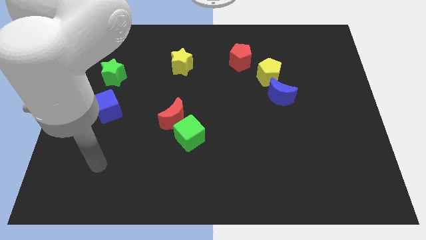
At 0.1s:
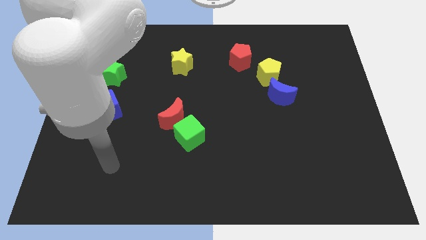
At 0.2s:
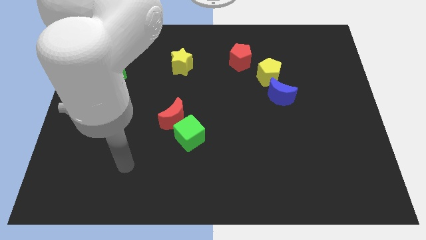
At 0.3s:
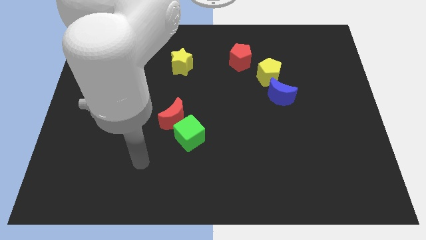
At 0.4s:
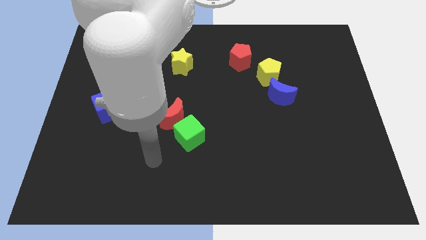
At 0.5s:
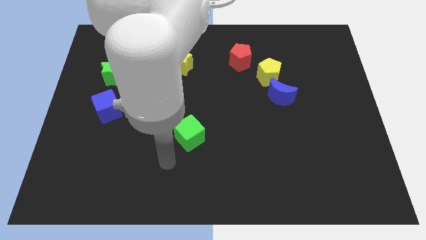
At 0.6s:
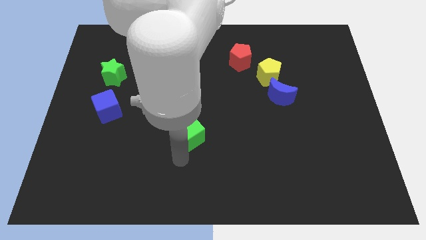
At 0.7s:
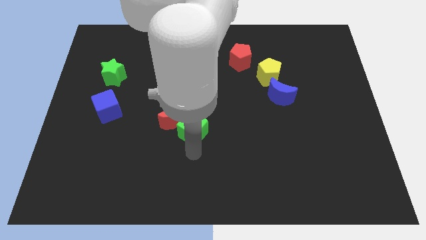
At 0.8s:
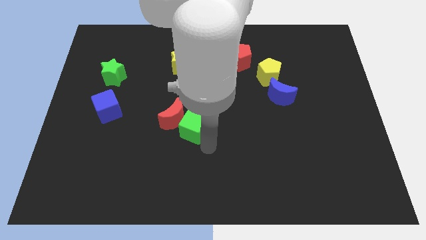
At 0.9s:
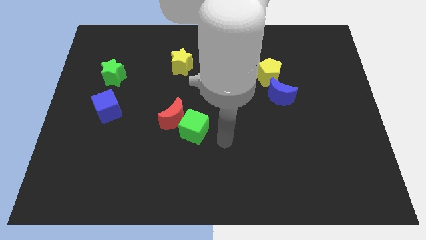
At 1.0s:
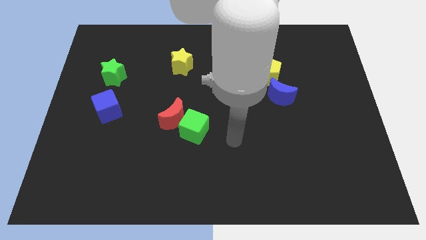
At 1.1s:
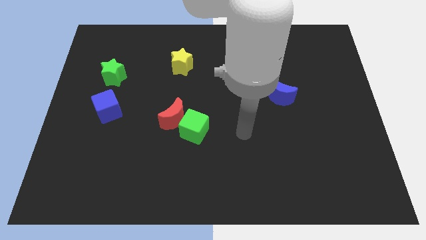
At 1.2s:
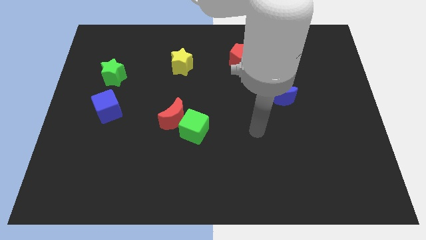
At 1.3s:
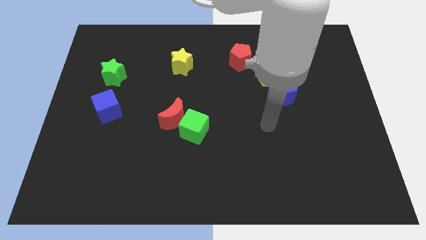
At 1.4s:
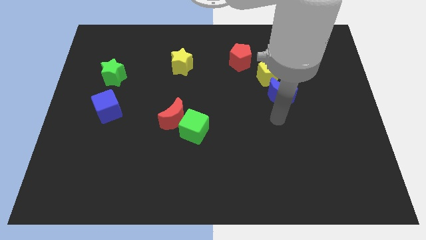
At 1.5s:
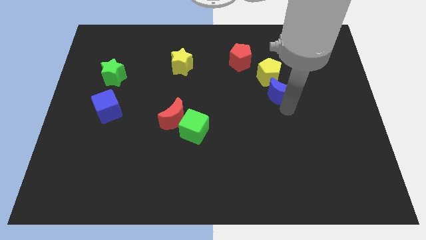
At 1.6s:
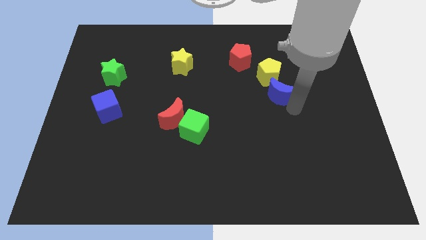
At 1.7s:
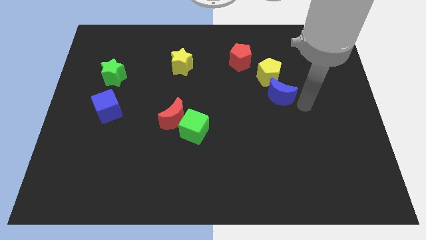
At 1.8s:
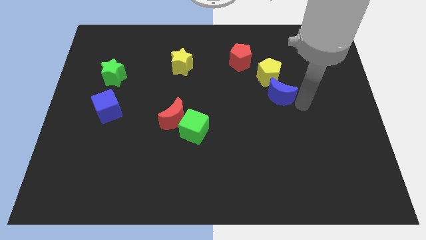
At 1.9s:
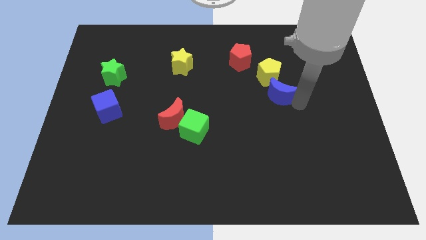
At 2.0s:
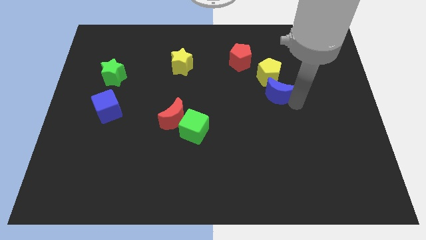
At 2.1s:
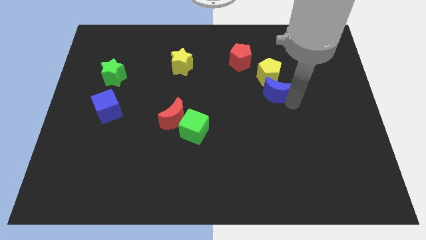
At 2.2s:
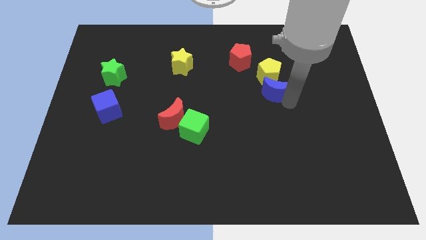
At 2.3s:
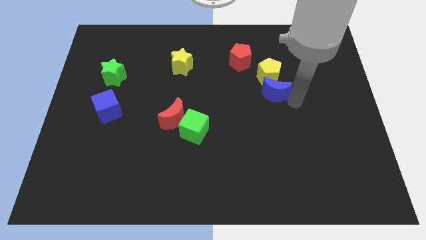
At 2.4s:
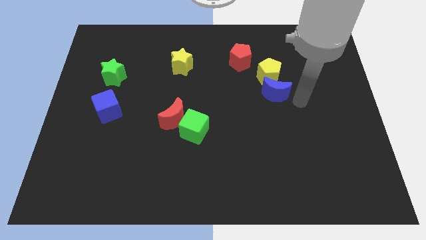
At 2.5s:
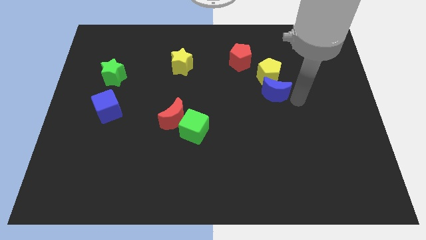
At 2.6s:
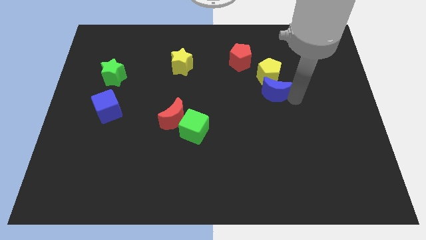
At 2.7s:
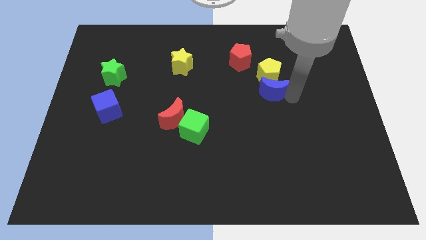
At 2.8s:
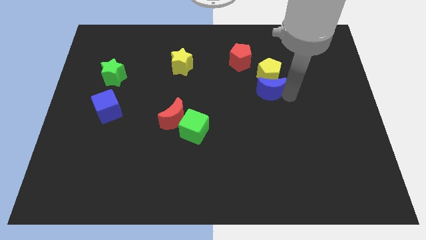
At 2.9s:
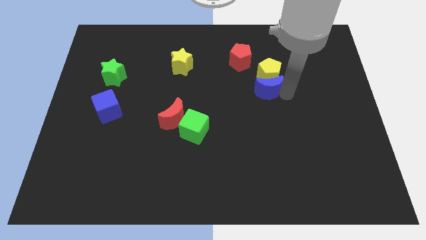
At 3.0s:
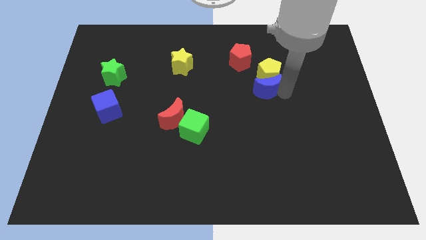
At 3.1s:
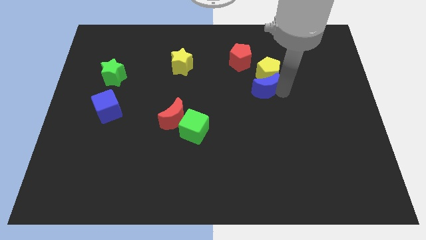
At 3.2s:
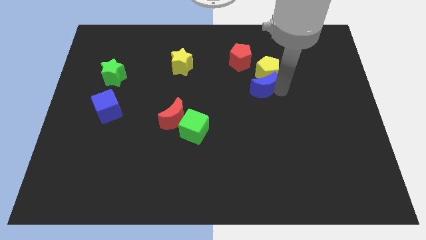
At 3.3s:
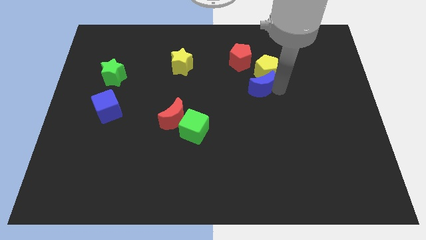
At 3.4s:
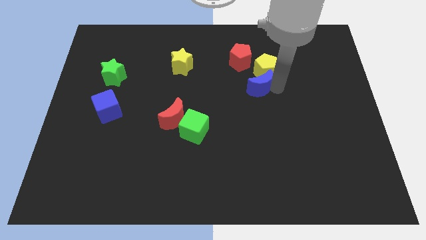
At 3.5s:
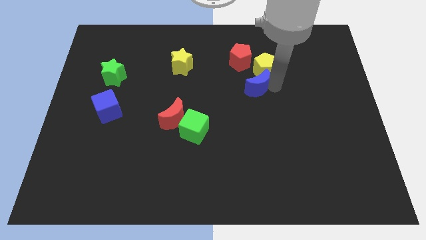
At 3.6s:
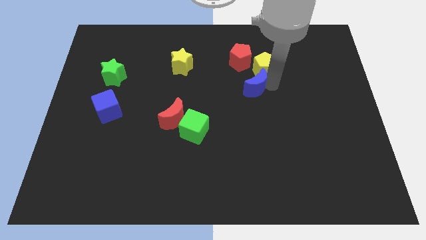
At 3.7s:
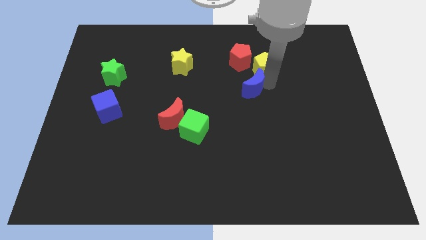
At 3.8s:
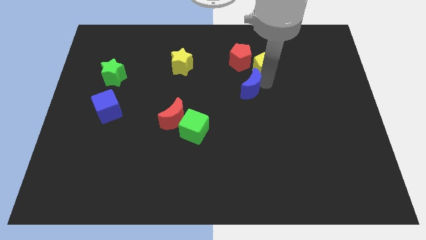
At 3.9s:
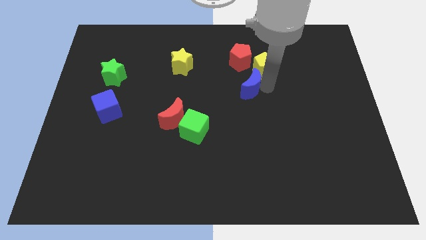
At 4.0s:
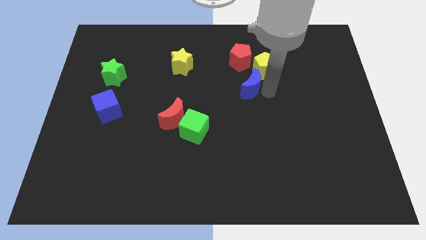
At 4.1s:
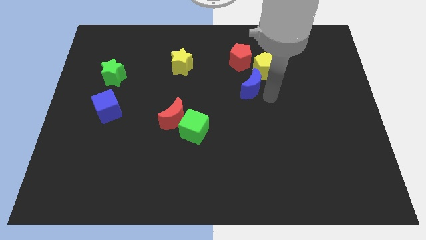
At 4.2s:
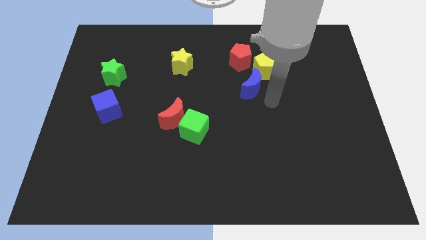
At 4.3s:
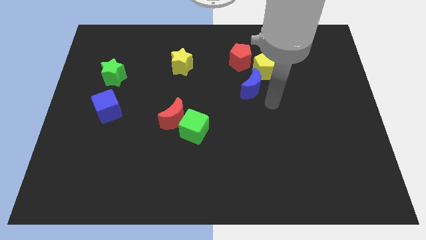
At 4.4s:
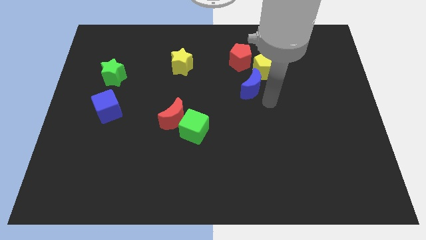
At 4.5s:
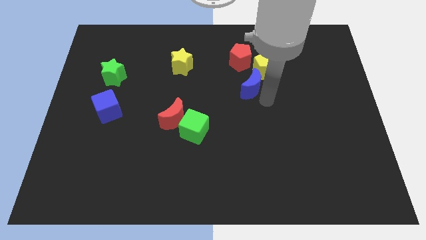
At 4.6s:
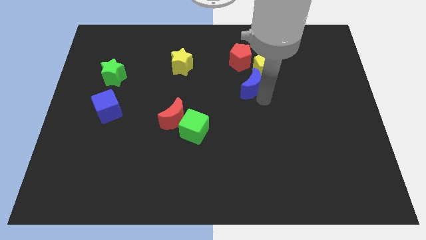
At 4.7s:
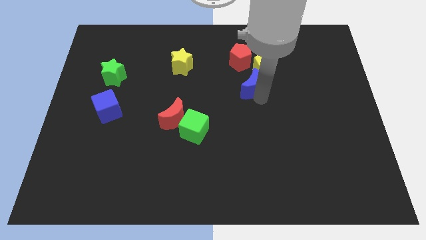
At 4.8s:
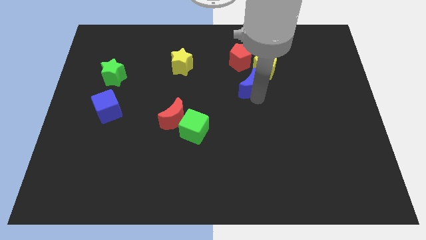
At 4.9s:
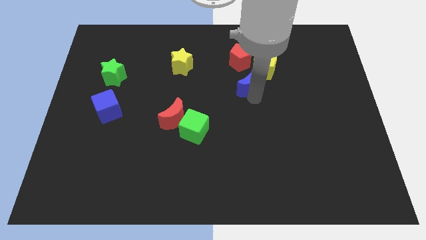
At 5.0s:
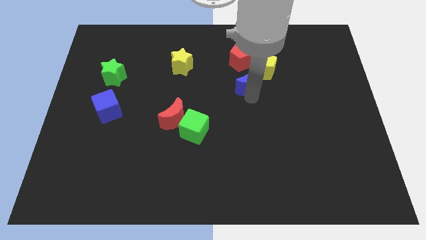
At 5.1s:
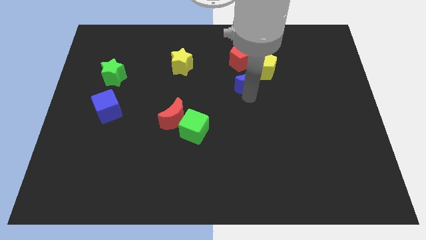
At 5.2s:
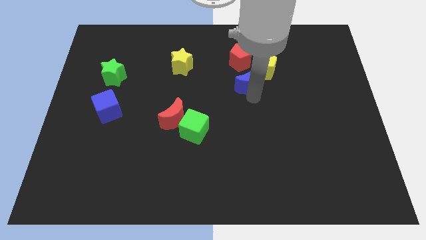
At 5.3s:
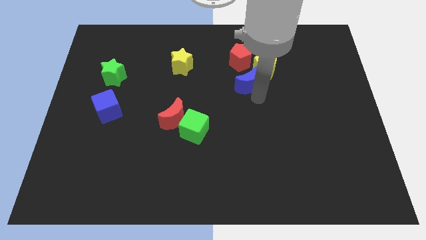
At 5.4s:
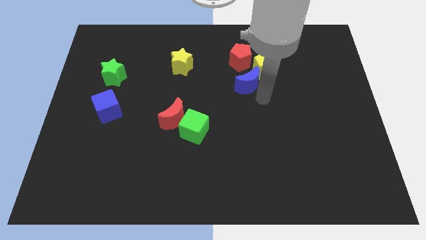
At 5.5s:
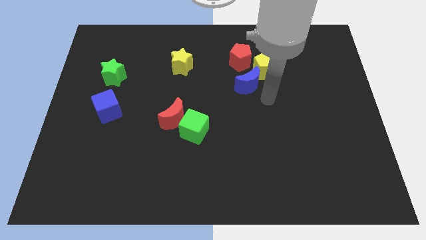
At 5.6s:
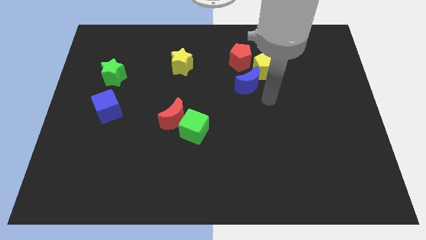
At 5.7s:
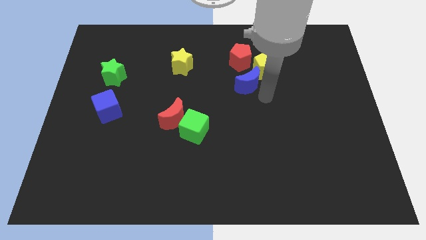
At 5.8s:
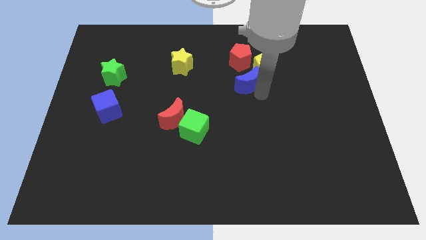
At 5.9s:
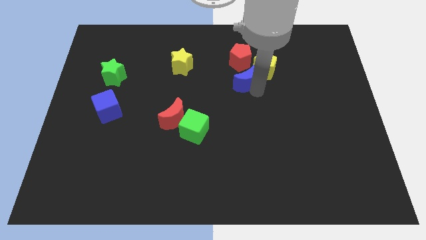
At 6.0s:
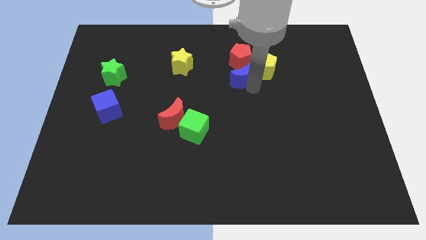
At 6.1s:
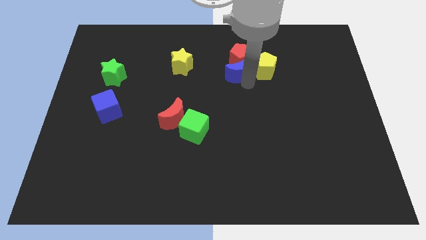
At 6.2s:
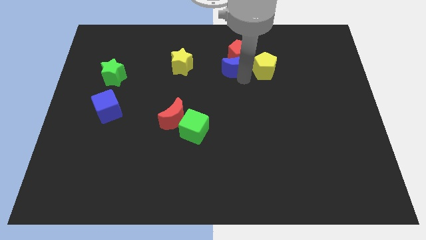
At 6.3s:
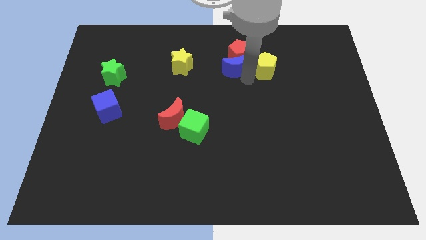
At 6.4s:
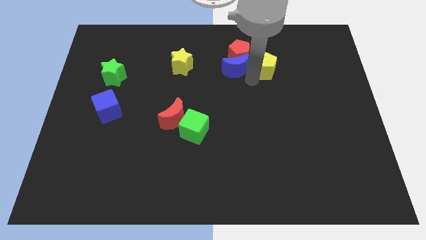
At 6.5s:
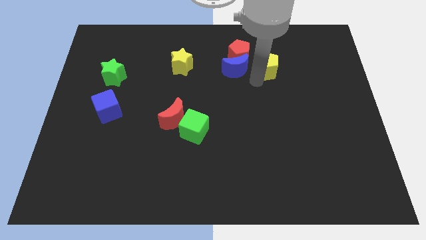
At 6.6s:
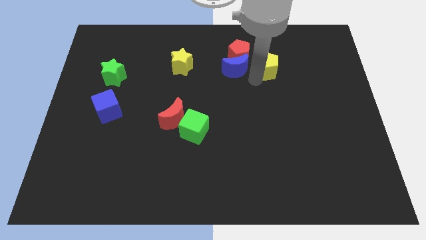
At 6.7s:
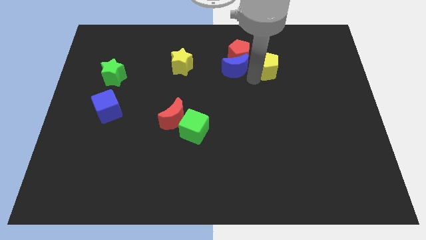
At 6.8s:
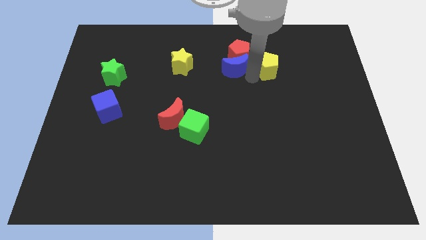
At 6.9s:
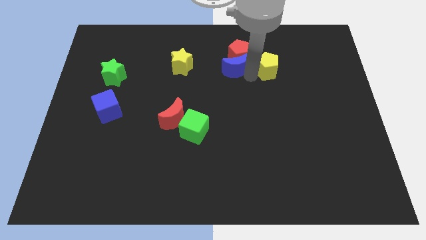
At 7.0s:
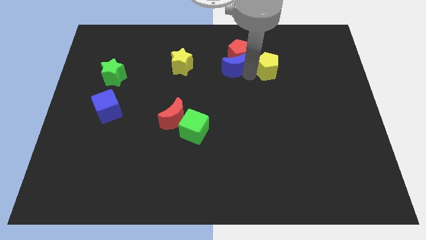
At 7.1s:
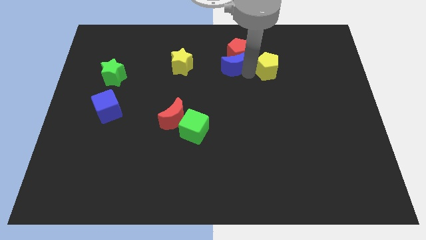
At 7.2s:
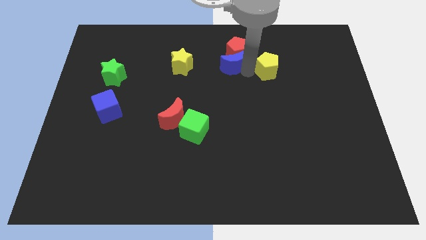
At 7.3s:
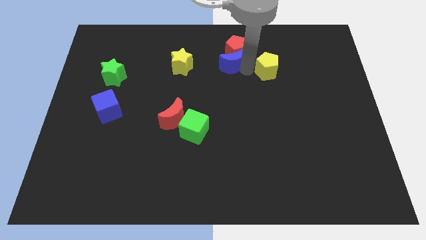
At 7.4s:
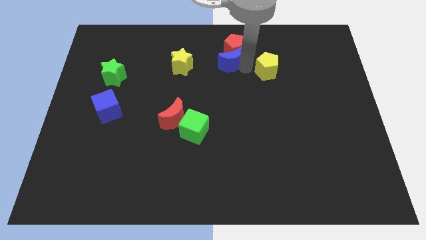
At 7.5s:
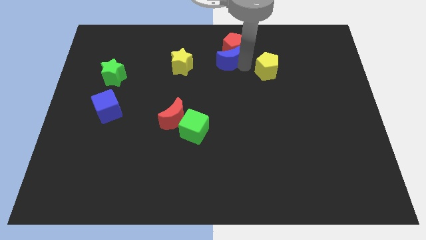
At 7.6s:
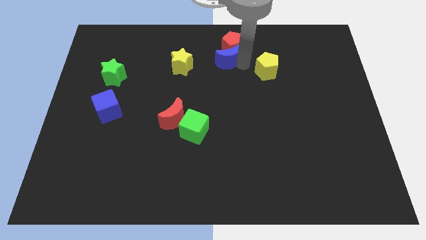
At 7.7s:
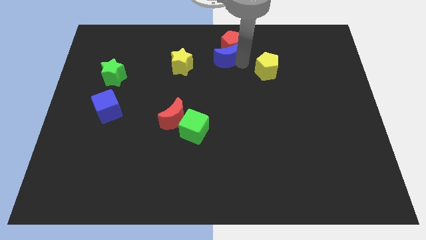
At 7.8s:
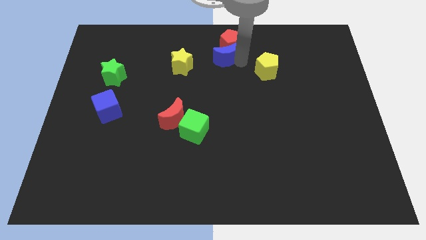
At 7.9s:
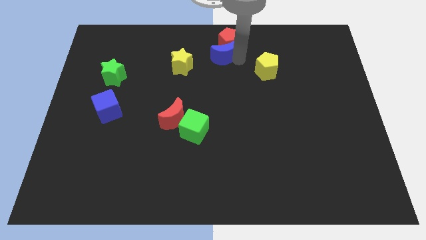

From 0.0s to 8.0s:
push the blue moon to the top side
